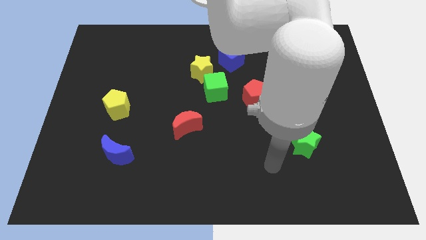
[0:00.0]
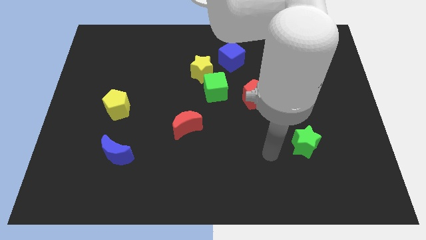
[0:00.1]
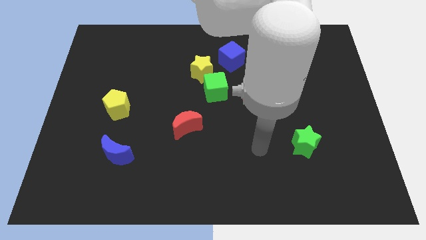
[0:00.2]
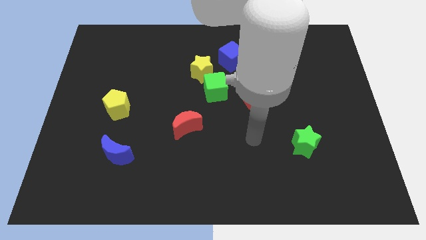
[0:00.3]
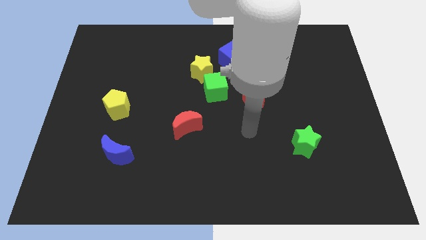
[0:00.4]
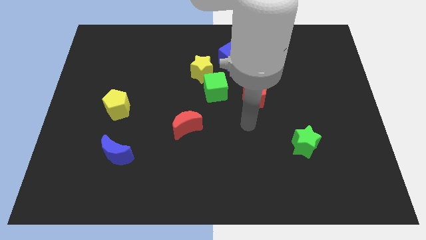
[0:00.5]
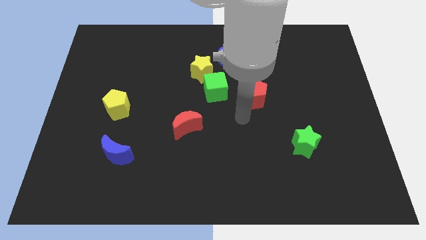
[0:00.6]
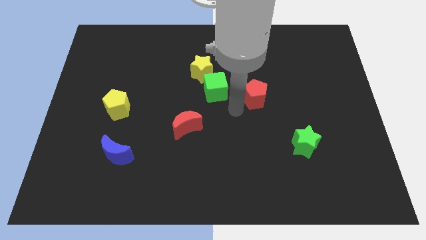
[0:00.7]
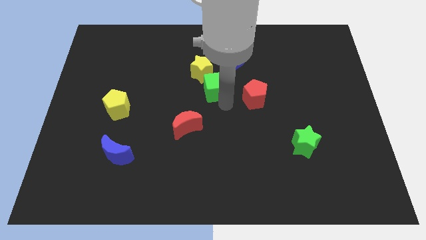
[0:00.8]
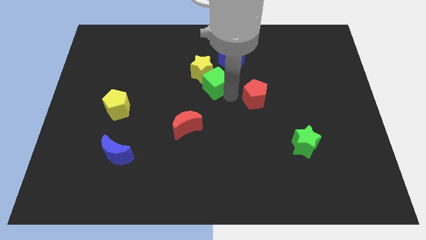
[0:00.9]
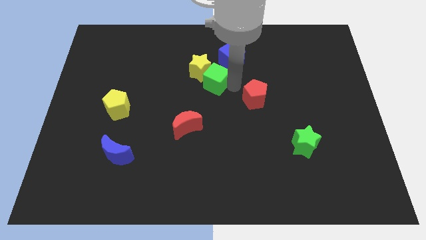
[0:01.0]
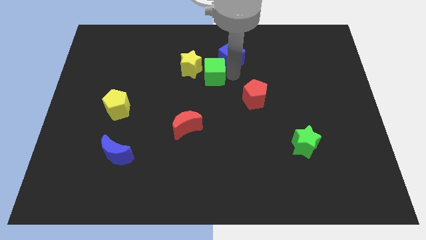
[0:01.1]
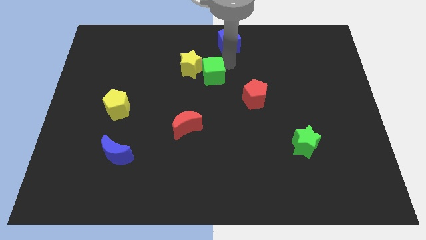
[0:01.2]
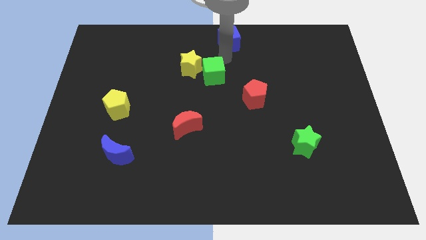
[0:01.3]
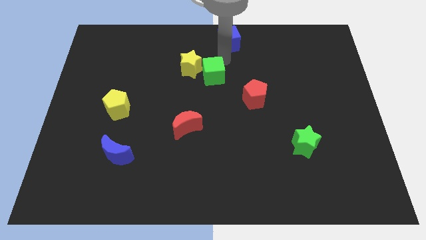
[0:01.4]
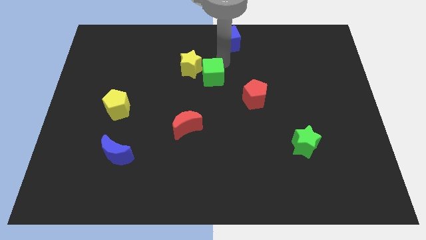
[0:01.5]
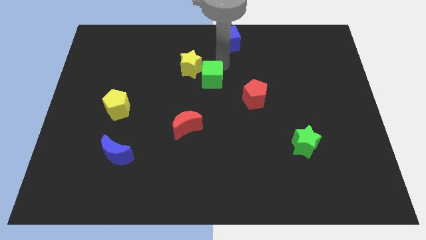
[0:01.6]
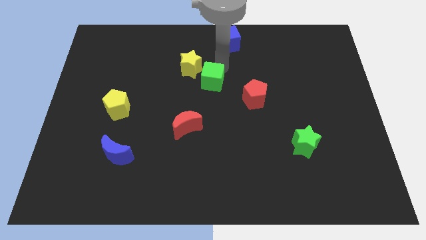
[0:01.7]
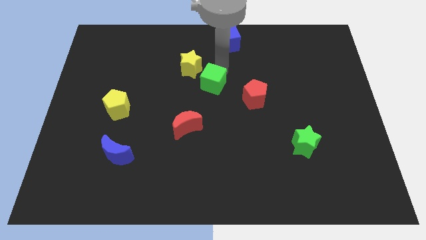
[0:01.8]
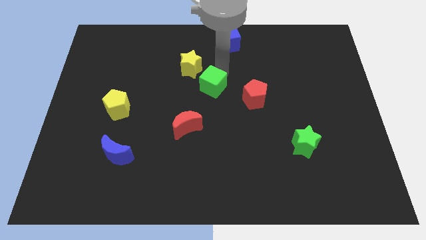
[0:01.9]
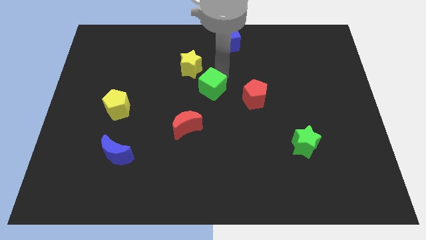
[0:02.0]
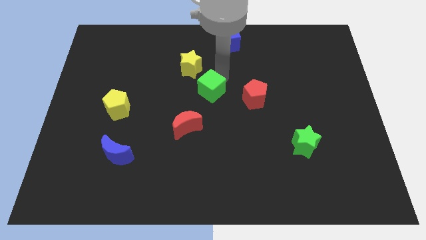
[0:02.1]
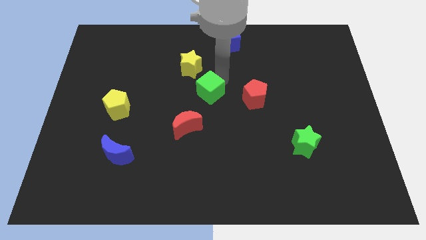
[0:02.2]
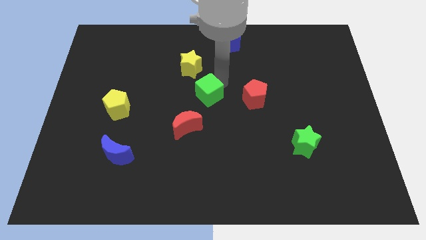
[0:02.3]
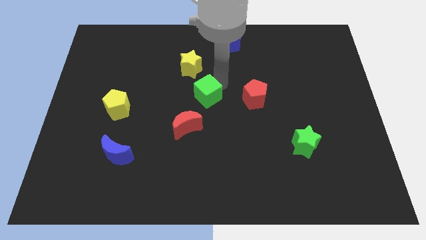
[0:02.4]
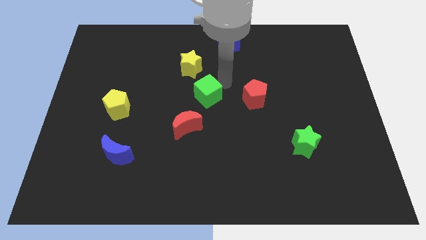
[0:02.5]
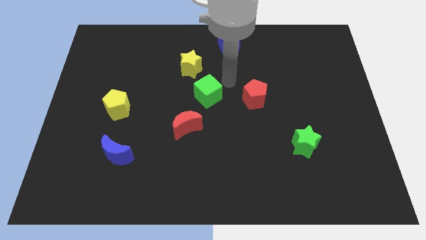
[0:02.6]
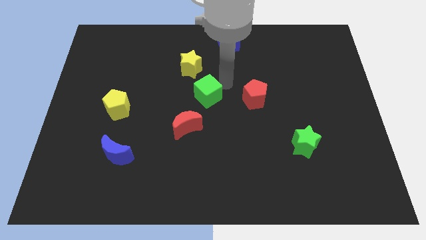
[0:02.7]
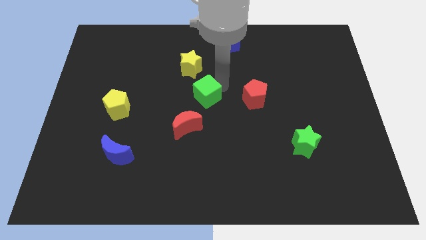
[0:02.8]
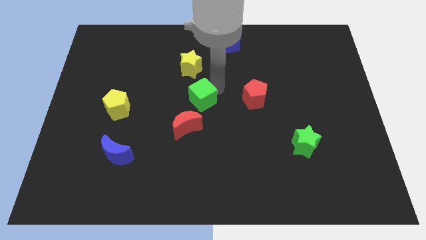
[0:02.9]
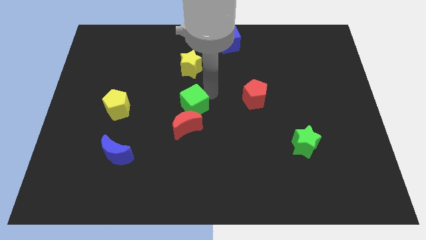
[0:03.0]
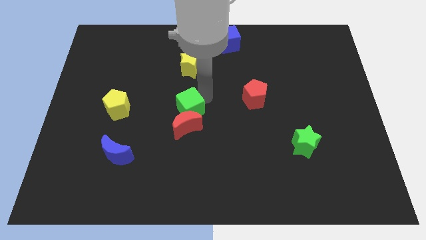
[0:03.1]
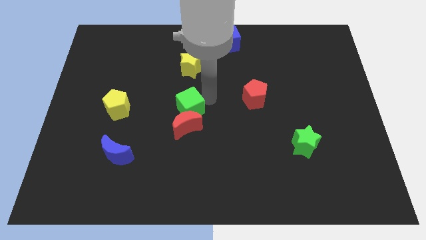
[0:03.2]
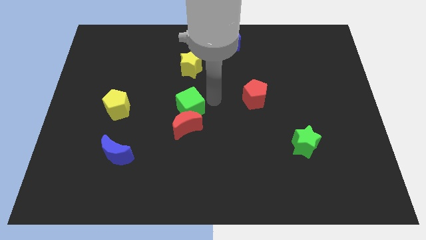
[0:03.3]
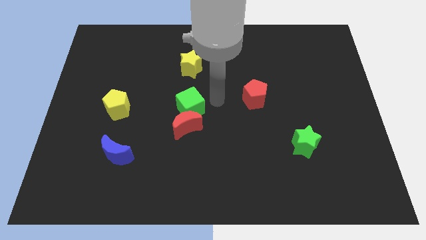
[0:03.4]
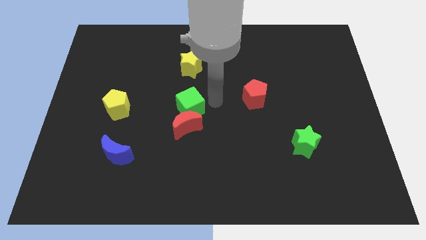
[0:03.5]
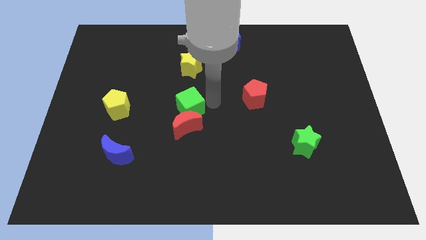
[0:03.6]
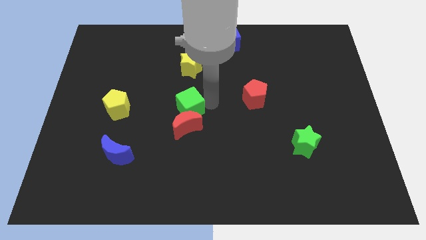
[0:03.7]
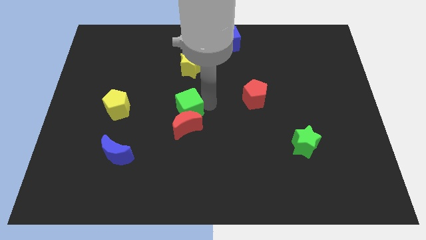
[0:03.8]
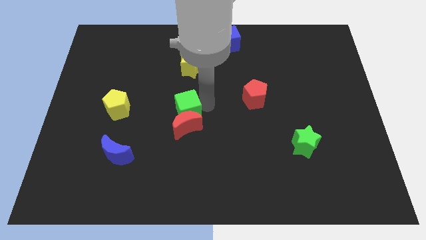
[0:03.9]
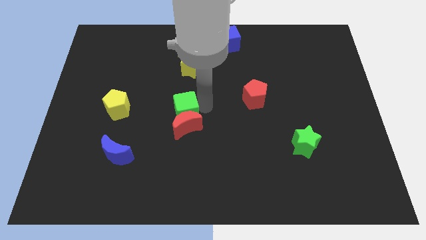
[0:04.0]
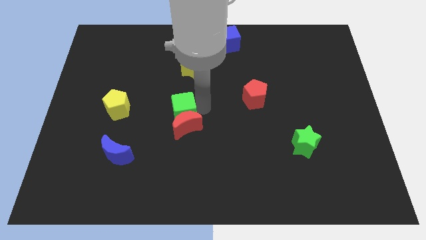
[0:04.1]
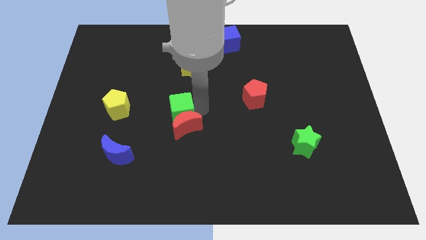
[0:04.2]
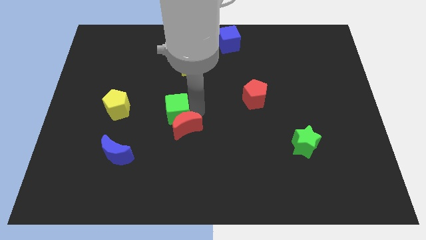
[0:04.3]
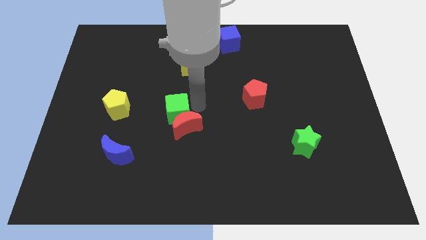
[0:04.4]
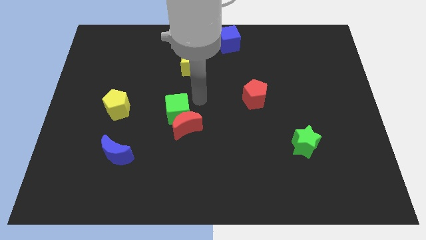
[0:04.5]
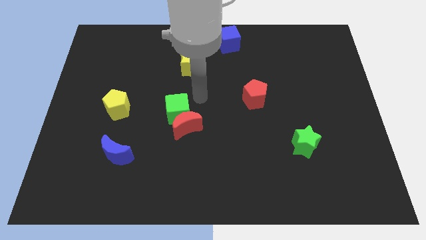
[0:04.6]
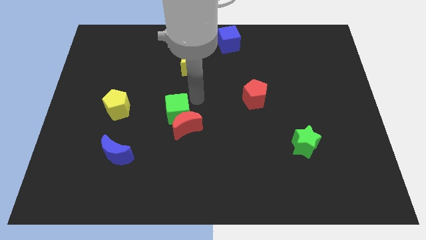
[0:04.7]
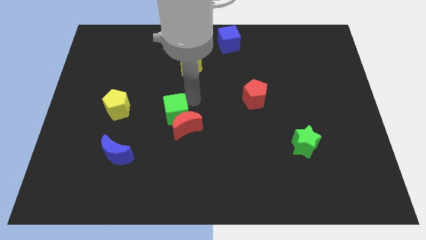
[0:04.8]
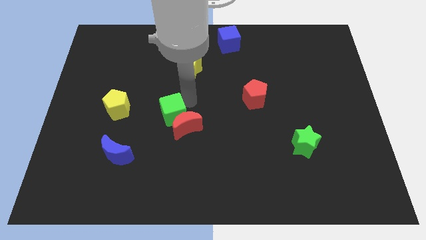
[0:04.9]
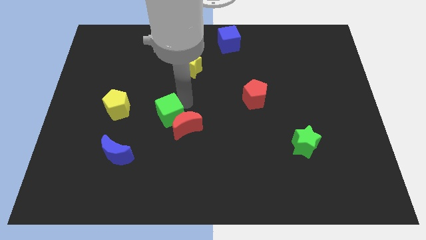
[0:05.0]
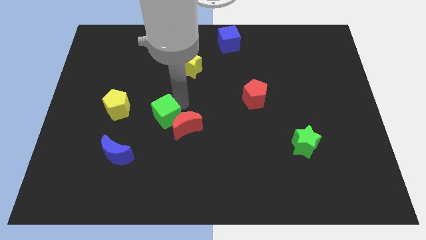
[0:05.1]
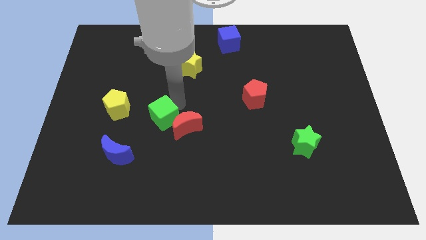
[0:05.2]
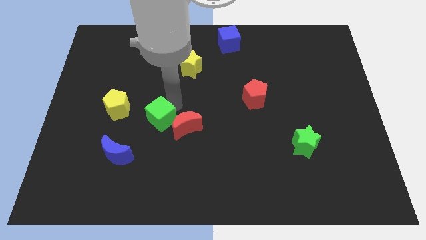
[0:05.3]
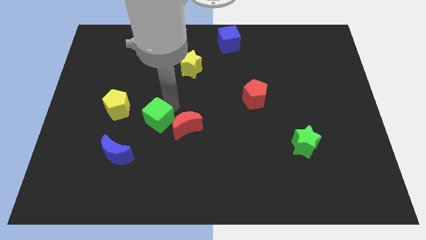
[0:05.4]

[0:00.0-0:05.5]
move the green cube diagonally up and to the right of the blue moon

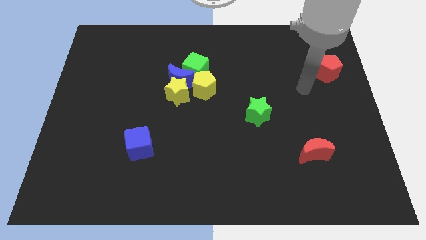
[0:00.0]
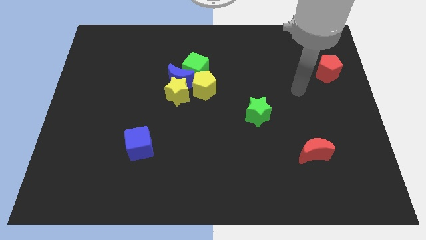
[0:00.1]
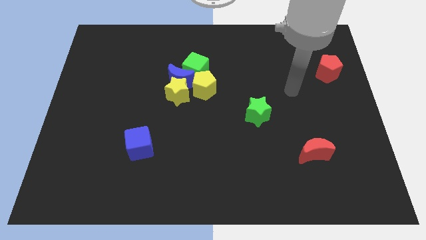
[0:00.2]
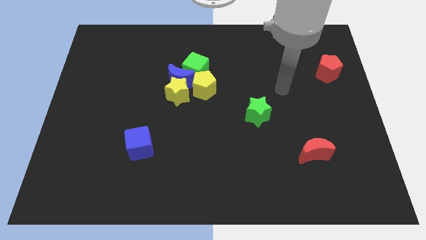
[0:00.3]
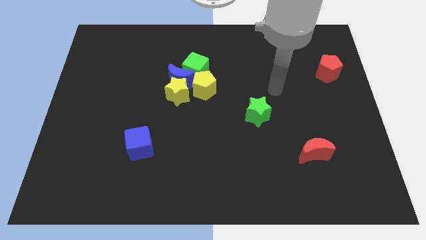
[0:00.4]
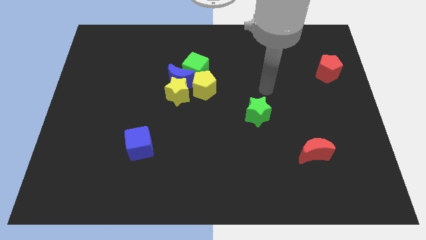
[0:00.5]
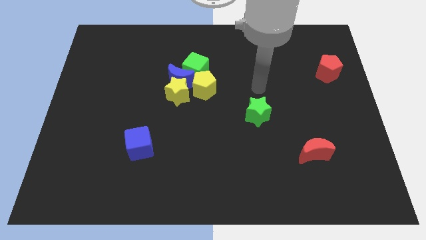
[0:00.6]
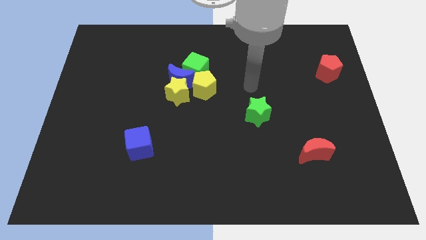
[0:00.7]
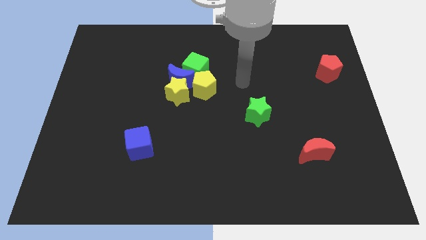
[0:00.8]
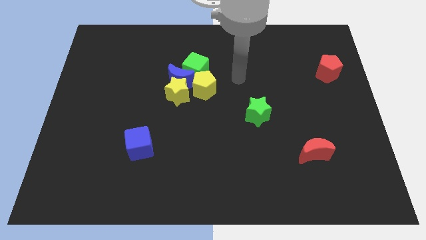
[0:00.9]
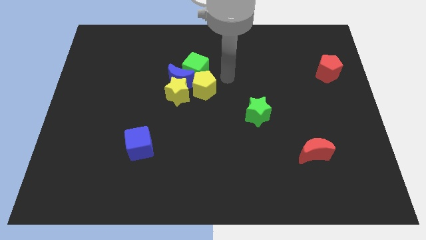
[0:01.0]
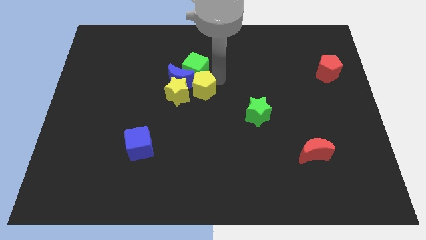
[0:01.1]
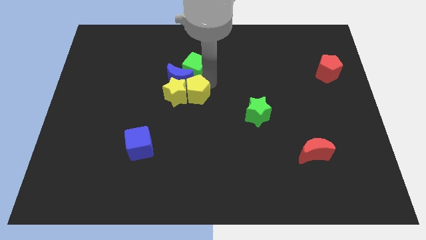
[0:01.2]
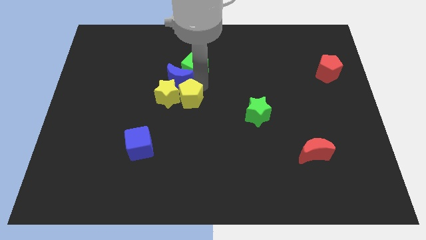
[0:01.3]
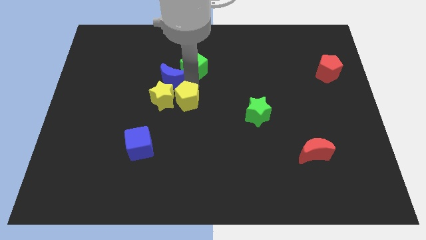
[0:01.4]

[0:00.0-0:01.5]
push the yellow star to the top side of the blue cube

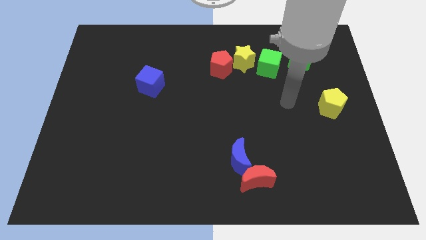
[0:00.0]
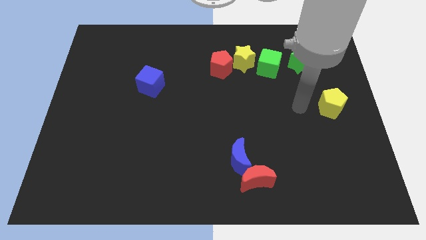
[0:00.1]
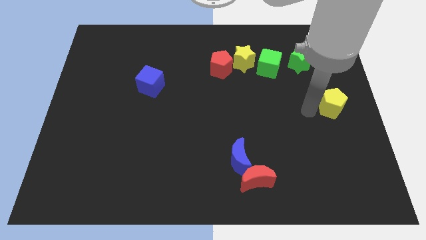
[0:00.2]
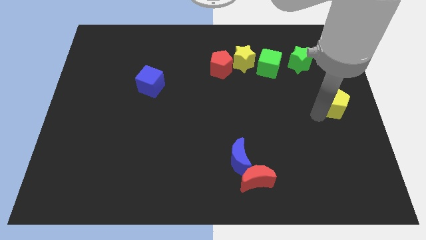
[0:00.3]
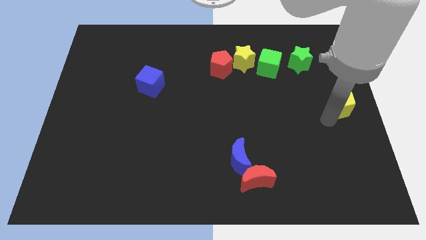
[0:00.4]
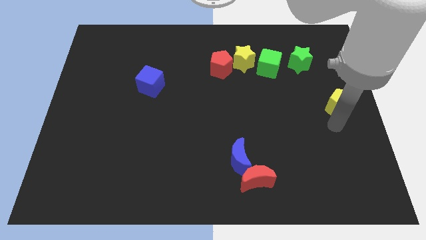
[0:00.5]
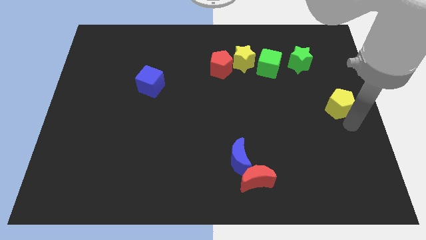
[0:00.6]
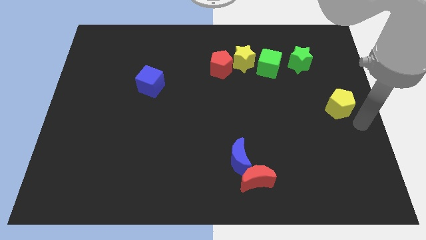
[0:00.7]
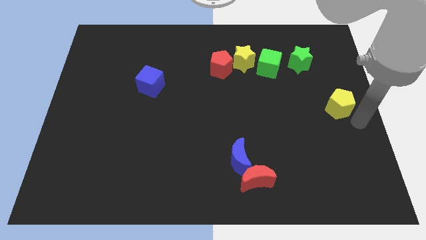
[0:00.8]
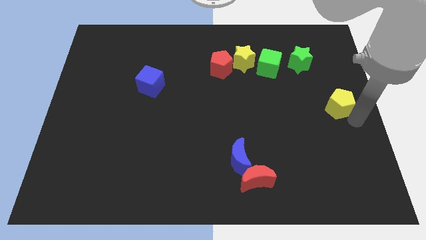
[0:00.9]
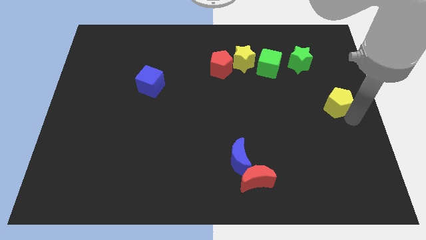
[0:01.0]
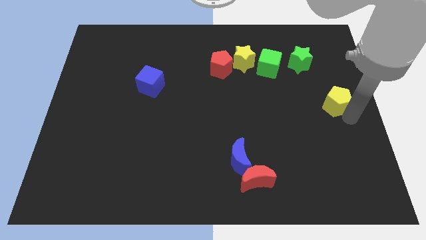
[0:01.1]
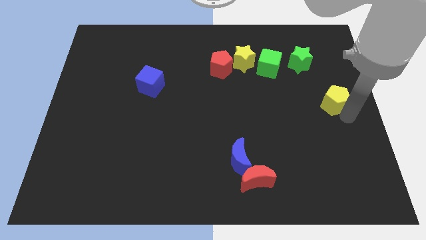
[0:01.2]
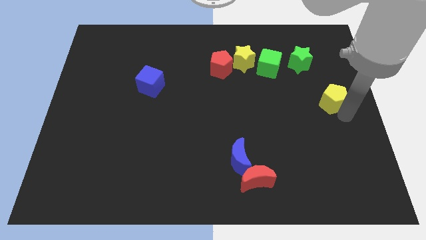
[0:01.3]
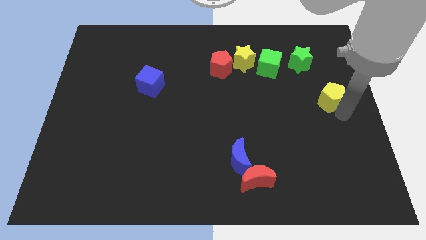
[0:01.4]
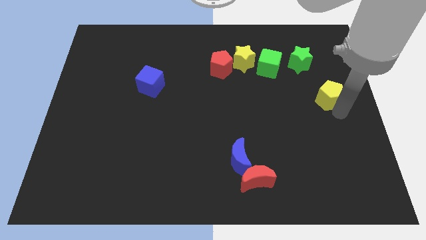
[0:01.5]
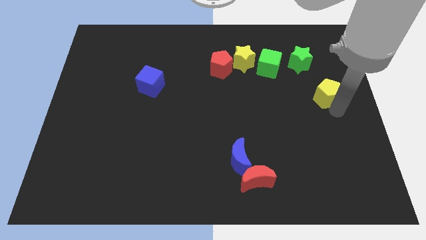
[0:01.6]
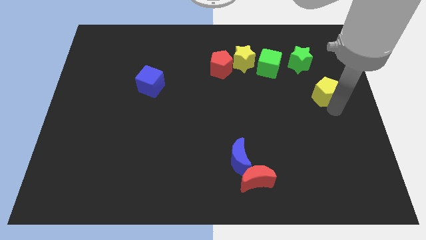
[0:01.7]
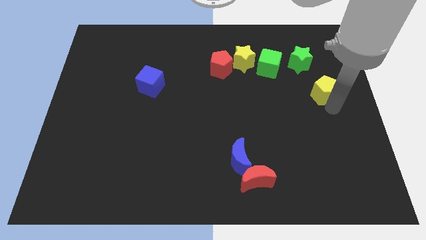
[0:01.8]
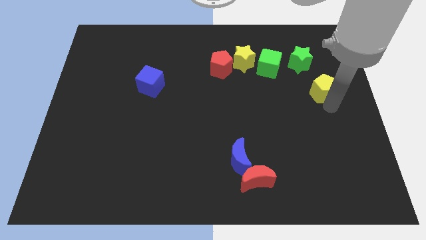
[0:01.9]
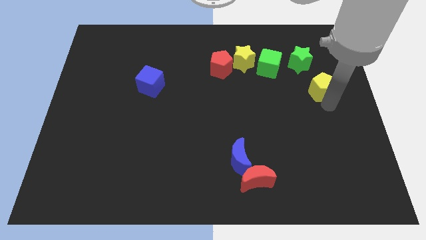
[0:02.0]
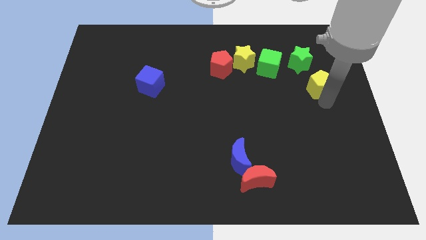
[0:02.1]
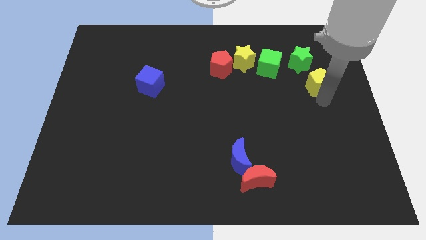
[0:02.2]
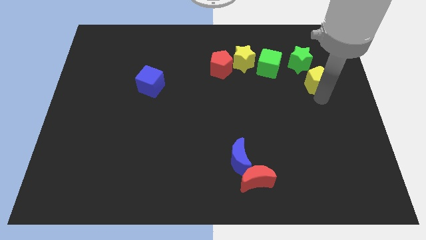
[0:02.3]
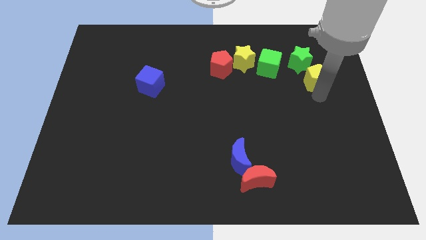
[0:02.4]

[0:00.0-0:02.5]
put the yellow pentagon just right of the green cube
